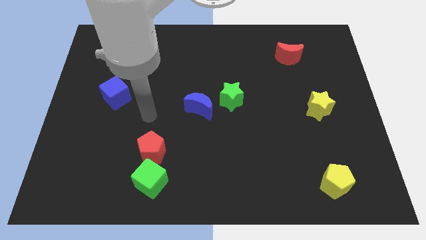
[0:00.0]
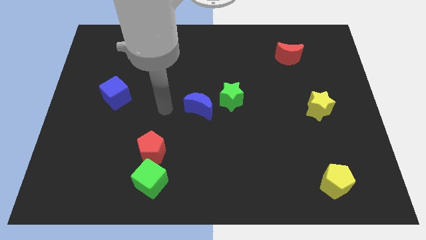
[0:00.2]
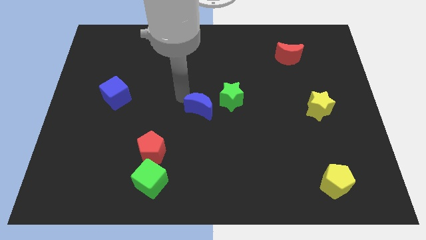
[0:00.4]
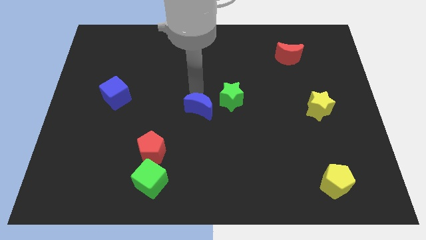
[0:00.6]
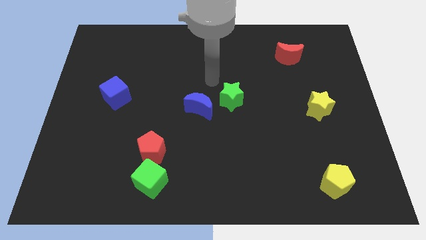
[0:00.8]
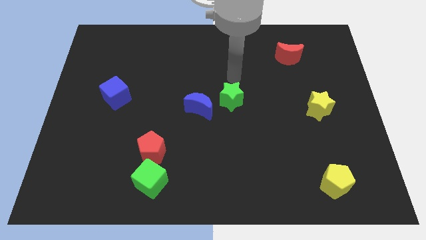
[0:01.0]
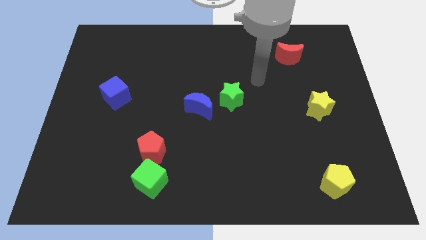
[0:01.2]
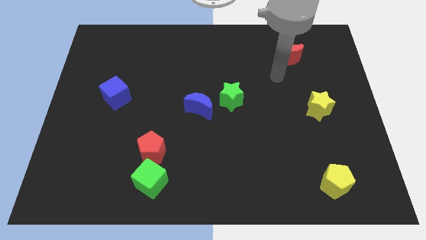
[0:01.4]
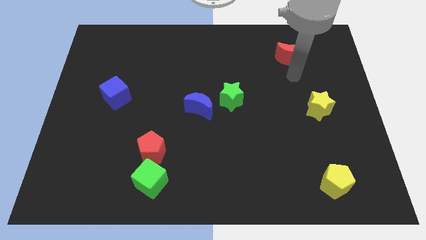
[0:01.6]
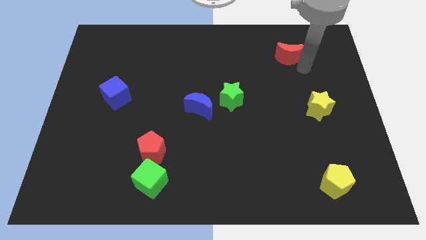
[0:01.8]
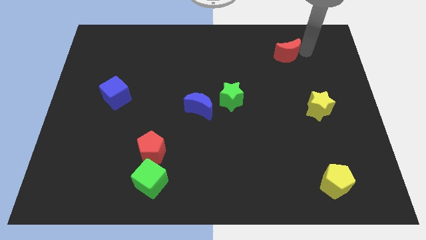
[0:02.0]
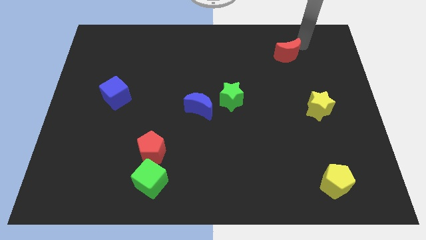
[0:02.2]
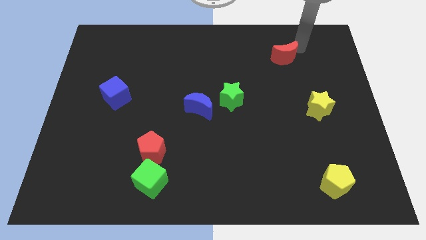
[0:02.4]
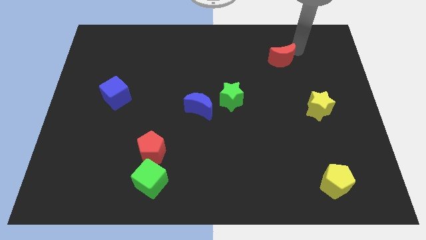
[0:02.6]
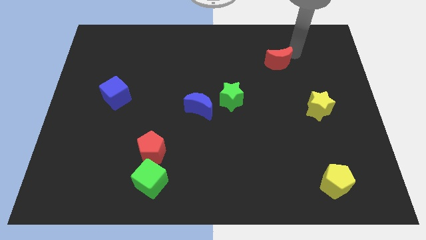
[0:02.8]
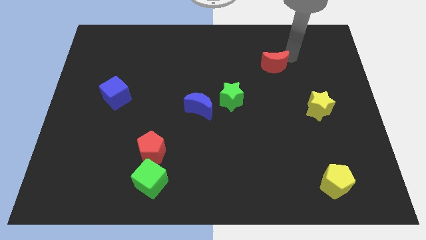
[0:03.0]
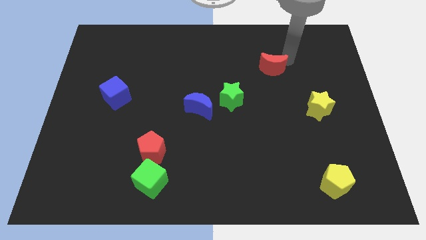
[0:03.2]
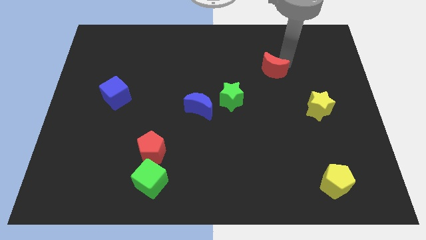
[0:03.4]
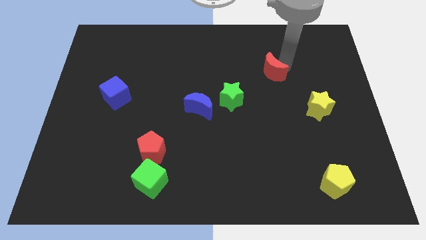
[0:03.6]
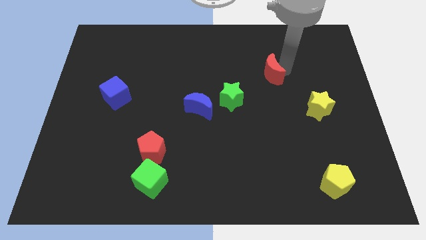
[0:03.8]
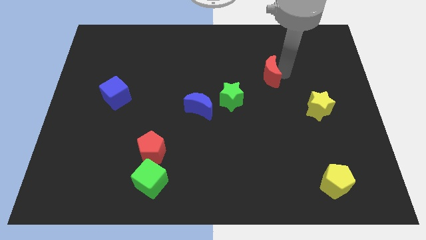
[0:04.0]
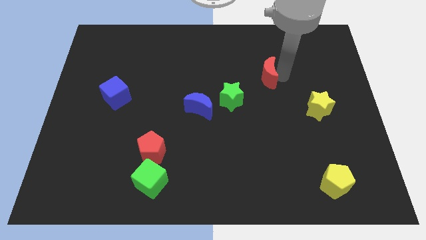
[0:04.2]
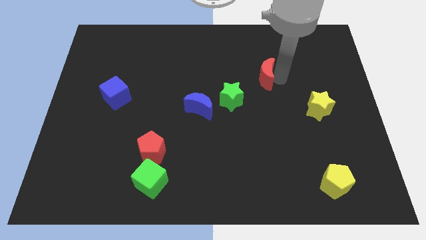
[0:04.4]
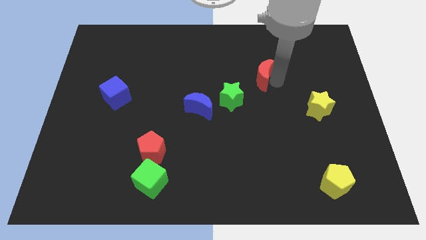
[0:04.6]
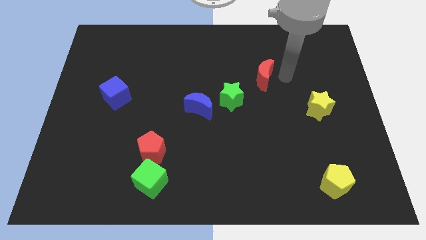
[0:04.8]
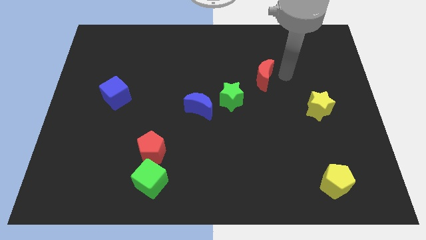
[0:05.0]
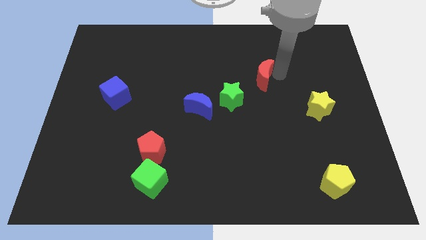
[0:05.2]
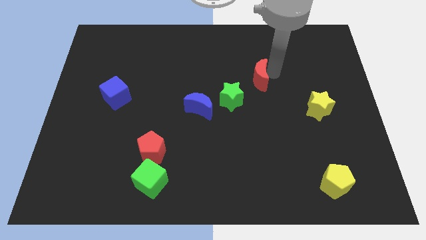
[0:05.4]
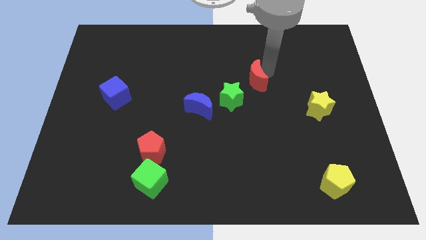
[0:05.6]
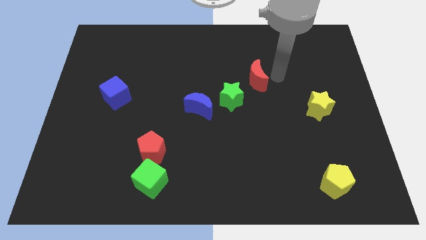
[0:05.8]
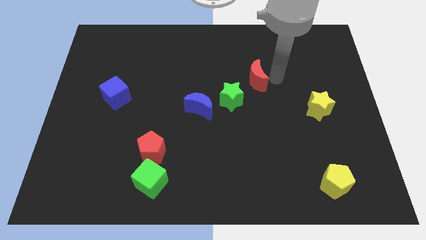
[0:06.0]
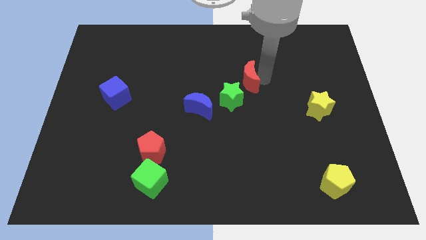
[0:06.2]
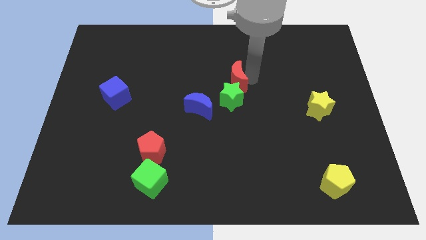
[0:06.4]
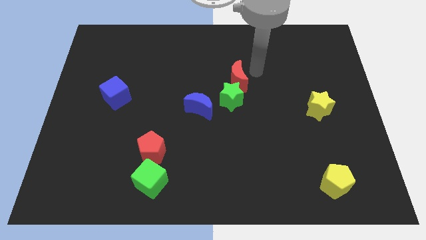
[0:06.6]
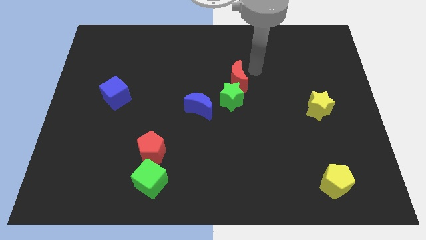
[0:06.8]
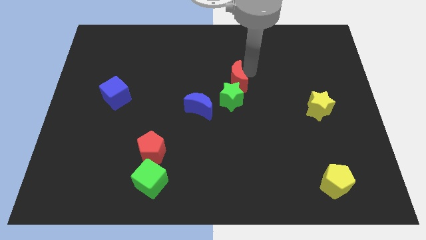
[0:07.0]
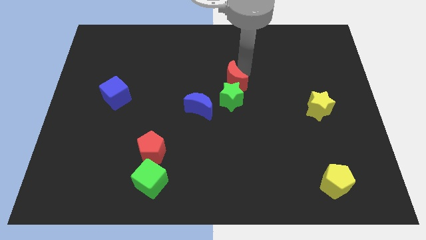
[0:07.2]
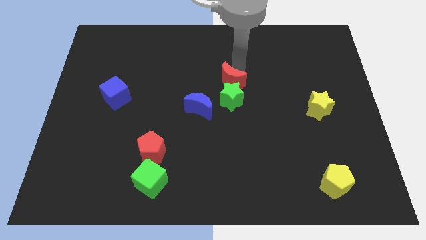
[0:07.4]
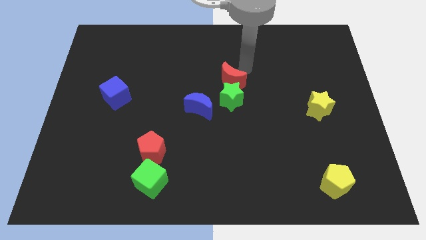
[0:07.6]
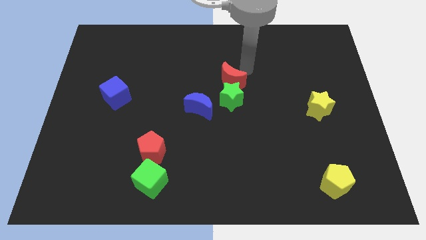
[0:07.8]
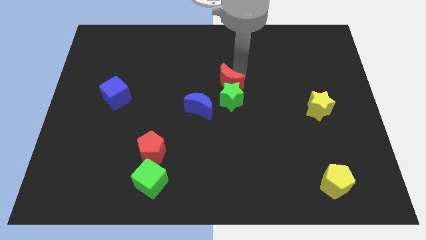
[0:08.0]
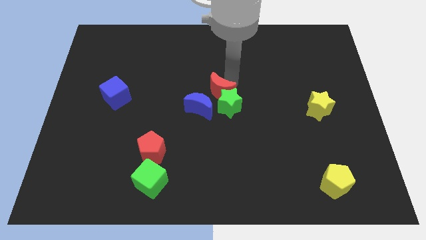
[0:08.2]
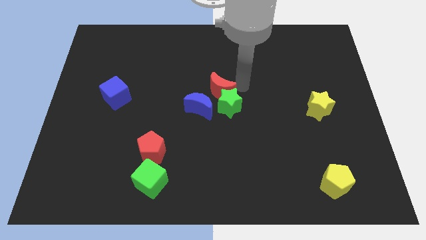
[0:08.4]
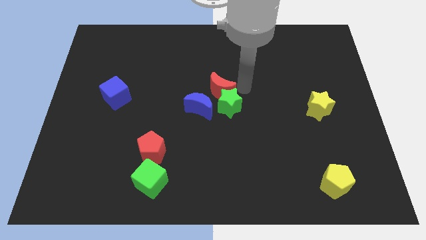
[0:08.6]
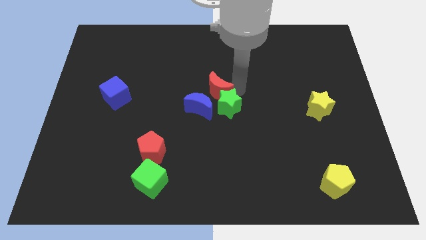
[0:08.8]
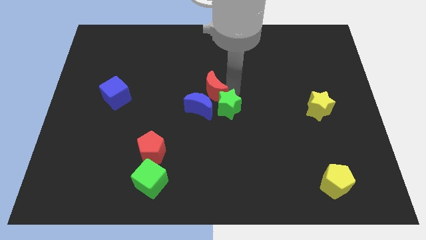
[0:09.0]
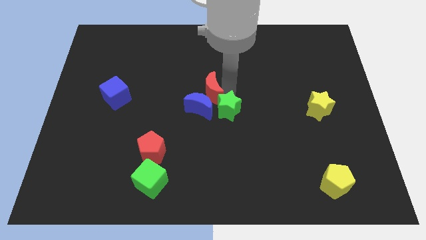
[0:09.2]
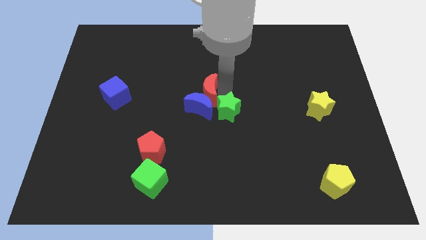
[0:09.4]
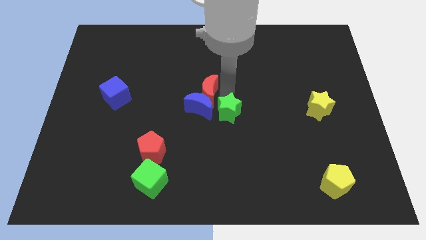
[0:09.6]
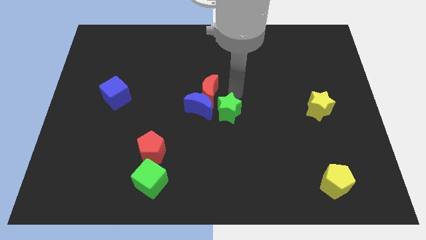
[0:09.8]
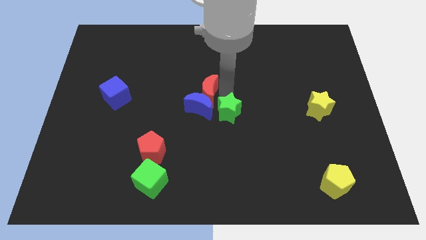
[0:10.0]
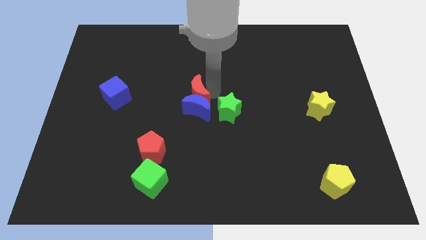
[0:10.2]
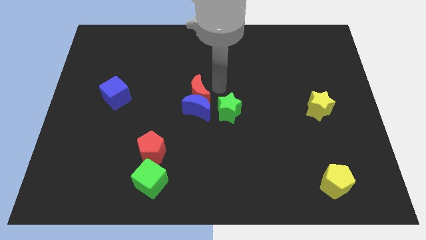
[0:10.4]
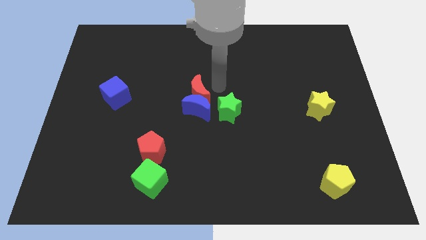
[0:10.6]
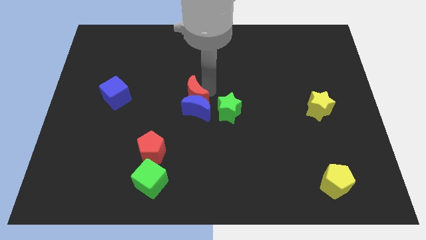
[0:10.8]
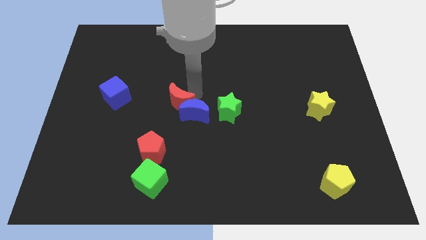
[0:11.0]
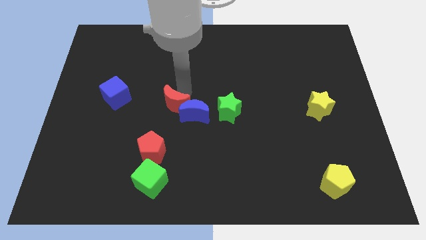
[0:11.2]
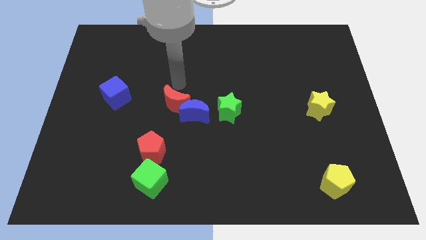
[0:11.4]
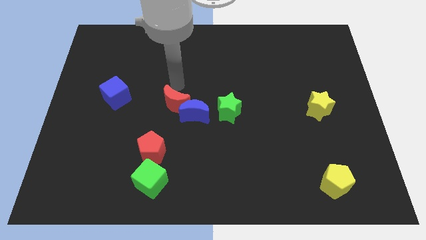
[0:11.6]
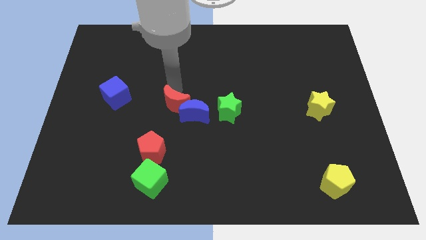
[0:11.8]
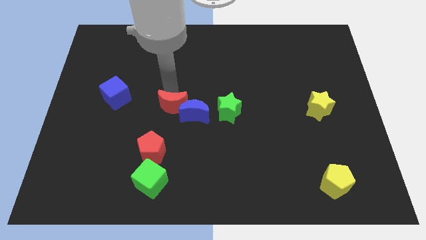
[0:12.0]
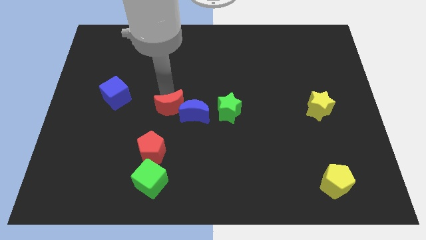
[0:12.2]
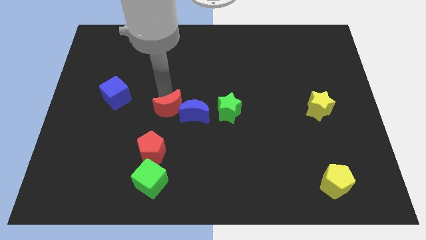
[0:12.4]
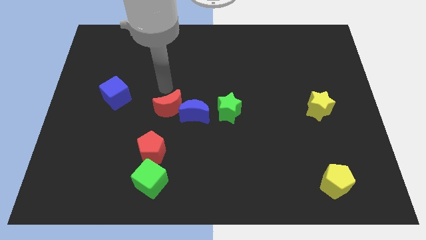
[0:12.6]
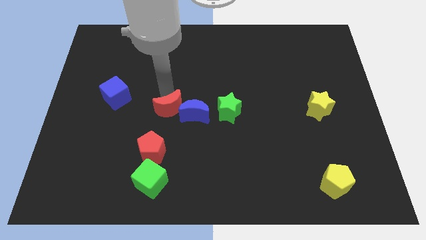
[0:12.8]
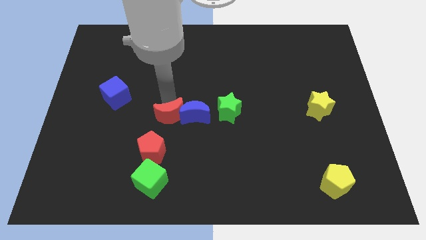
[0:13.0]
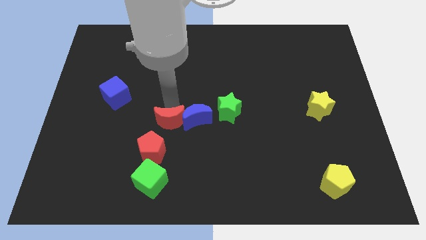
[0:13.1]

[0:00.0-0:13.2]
move the red moon above the green cube
